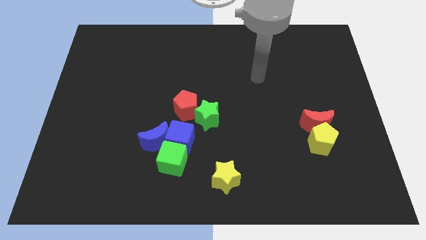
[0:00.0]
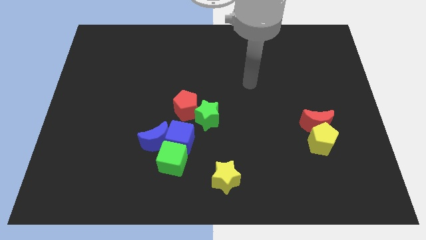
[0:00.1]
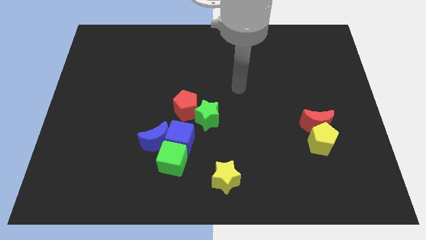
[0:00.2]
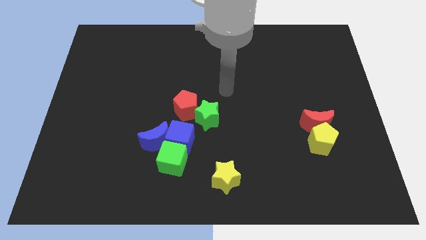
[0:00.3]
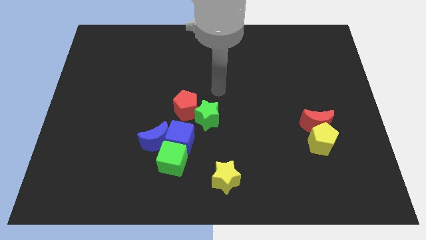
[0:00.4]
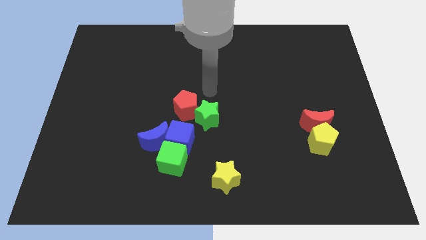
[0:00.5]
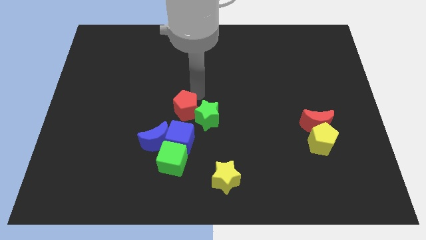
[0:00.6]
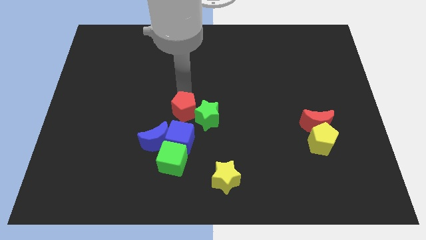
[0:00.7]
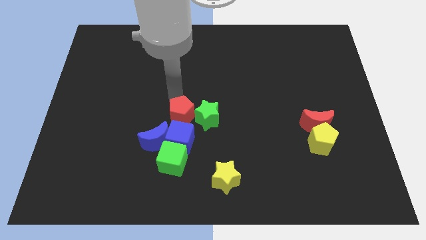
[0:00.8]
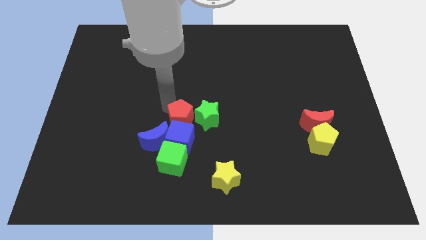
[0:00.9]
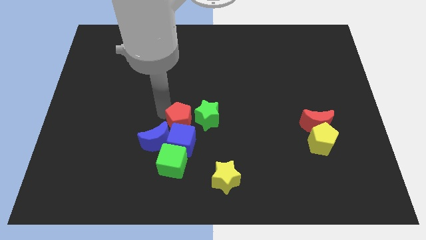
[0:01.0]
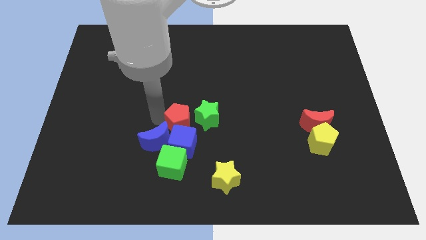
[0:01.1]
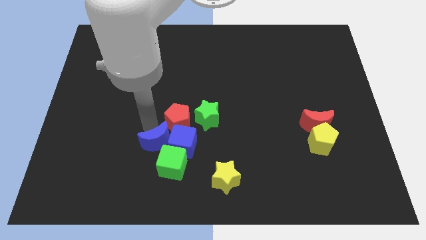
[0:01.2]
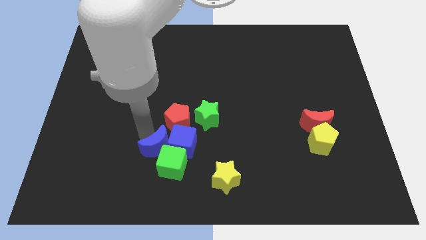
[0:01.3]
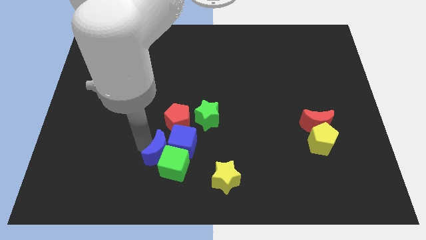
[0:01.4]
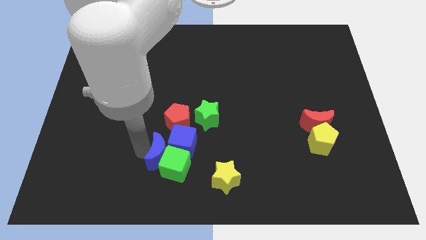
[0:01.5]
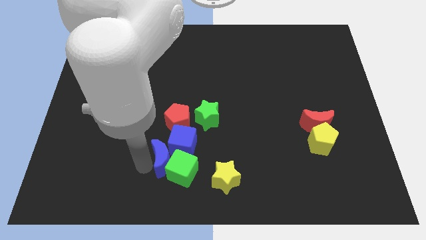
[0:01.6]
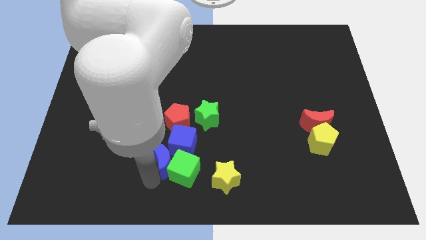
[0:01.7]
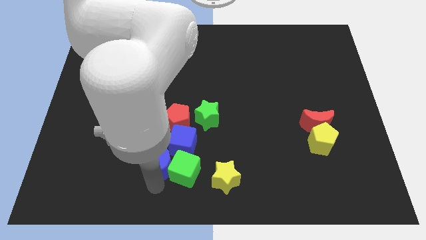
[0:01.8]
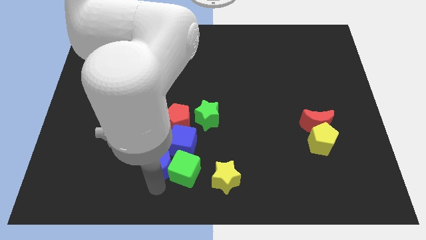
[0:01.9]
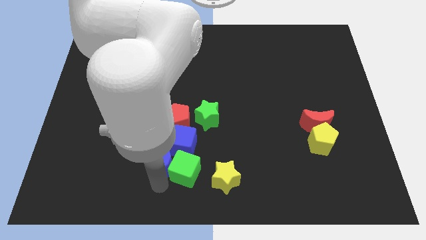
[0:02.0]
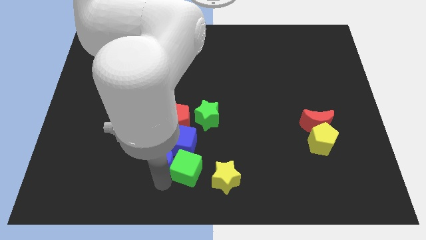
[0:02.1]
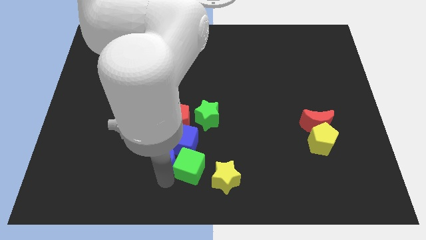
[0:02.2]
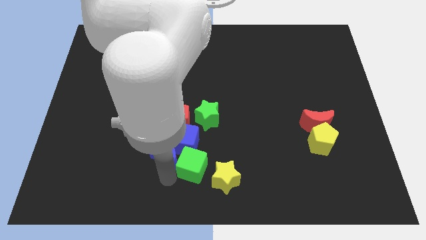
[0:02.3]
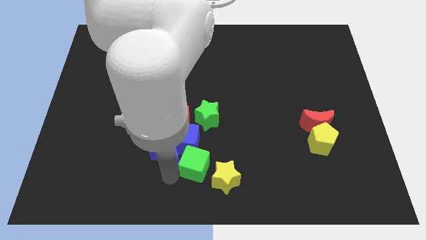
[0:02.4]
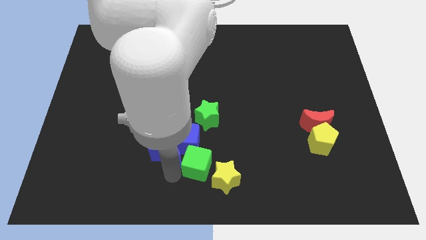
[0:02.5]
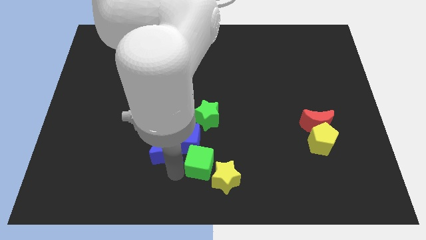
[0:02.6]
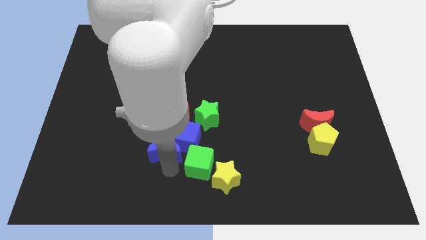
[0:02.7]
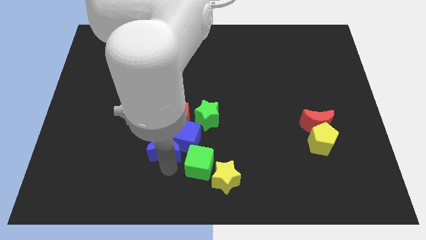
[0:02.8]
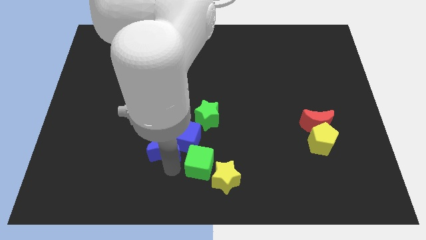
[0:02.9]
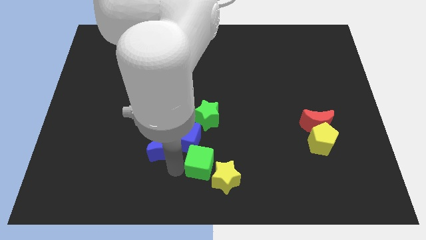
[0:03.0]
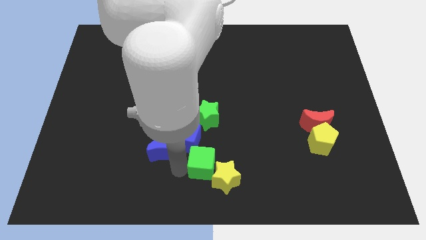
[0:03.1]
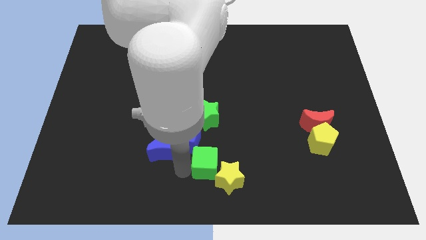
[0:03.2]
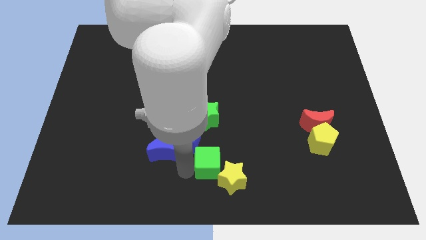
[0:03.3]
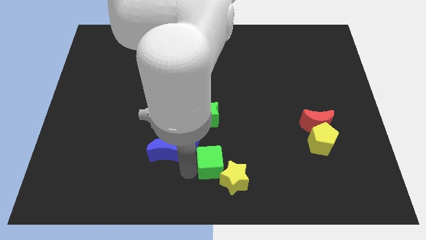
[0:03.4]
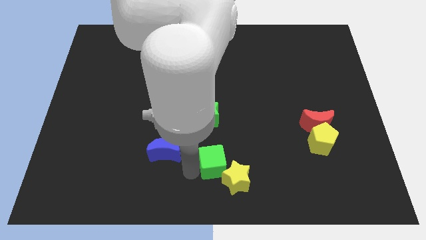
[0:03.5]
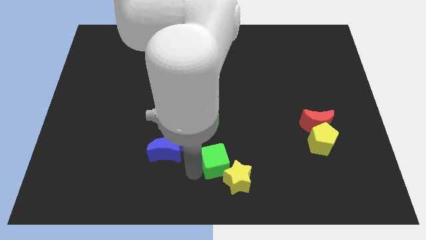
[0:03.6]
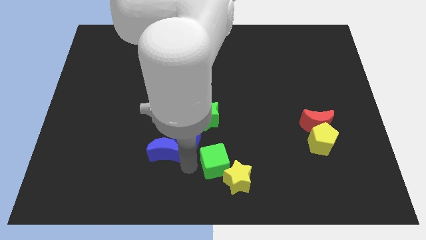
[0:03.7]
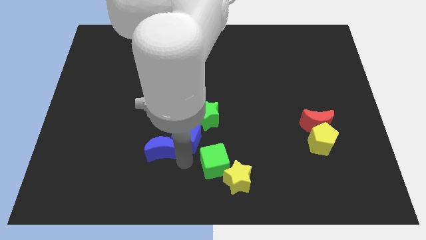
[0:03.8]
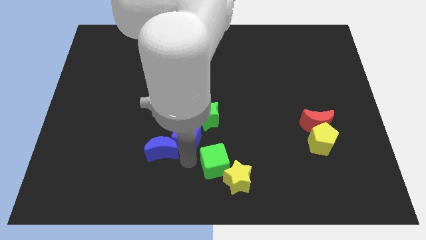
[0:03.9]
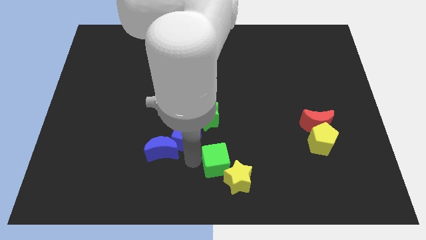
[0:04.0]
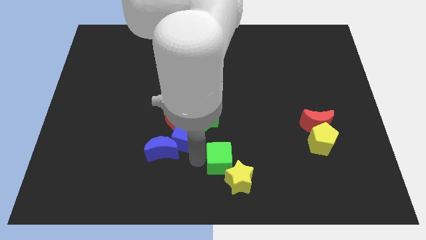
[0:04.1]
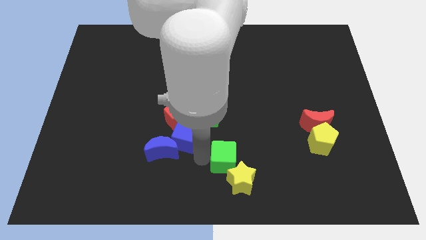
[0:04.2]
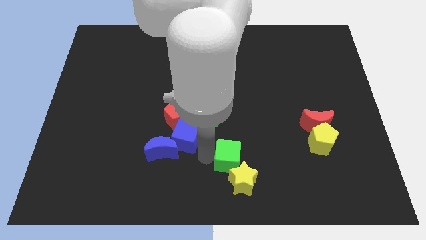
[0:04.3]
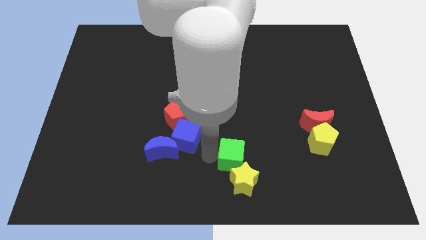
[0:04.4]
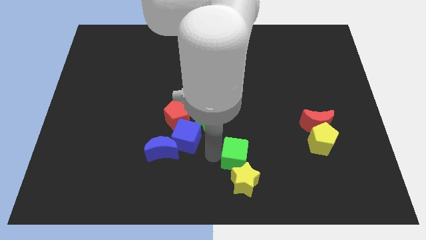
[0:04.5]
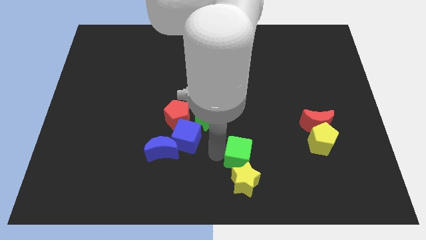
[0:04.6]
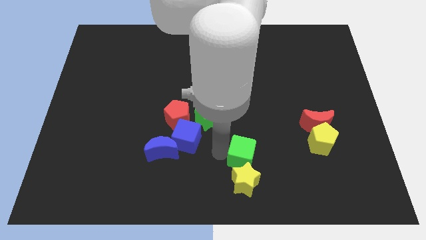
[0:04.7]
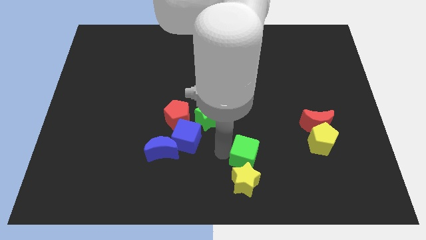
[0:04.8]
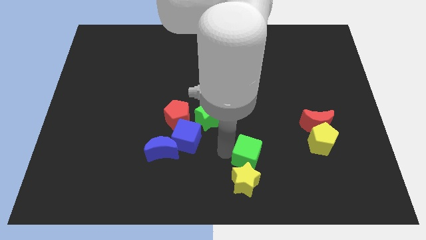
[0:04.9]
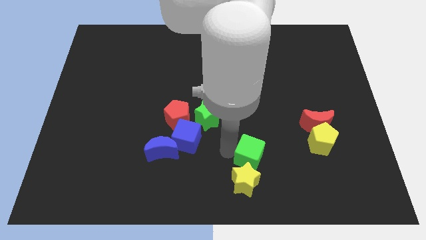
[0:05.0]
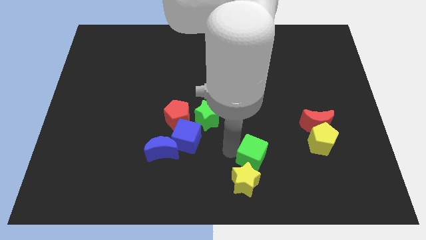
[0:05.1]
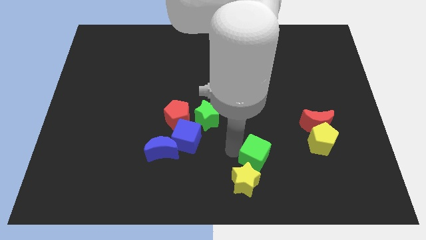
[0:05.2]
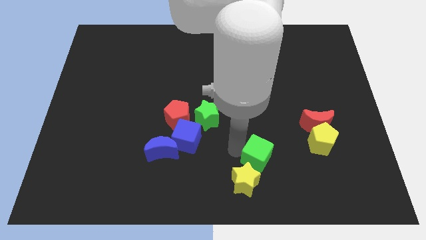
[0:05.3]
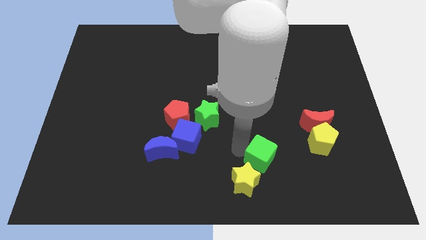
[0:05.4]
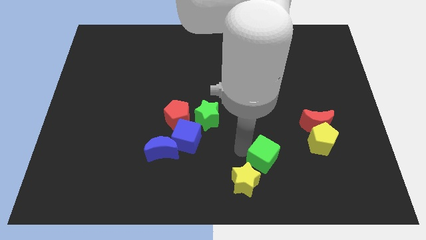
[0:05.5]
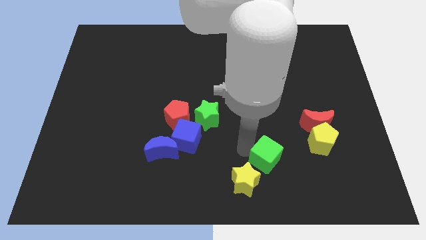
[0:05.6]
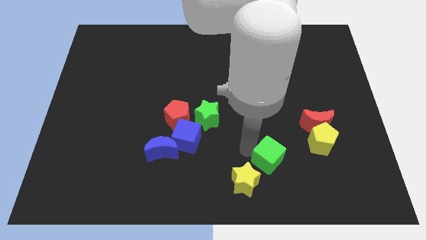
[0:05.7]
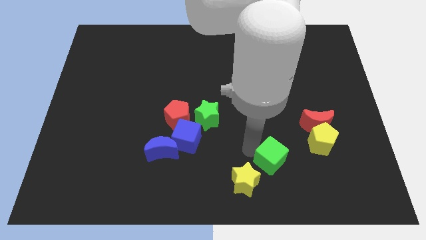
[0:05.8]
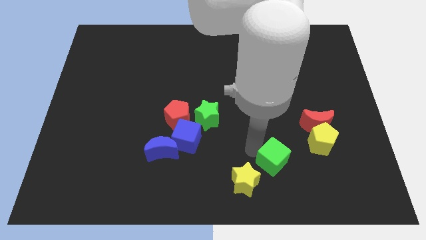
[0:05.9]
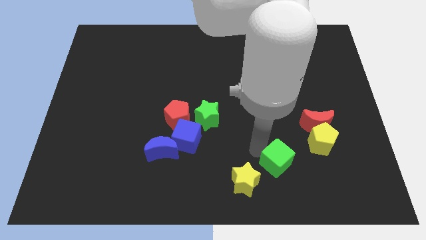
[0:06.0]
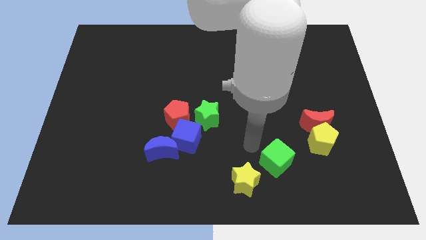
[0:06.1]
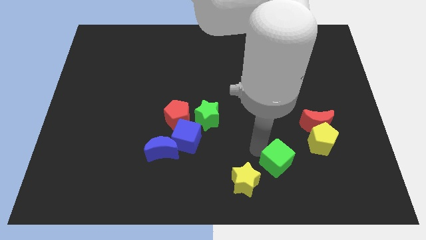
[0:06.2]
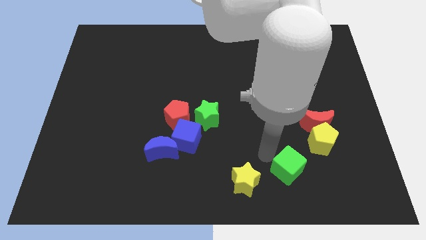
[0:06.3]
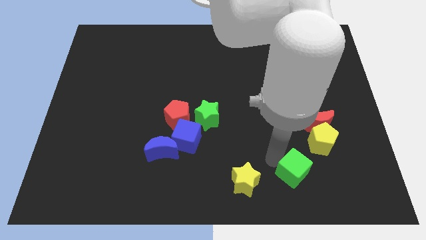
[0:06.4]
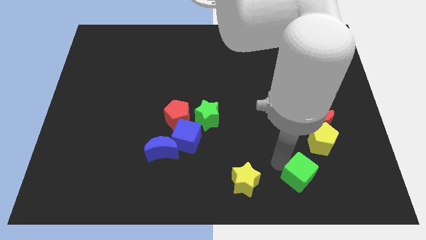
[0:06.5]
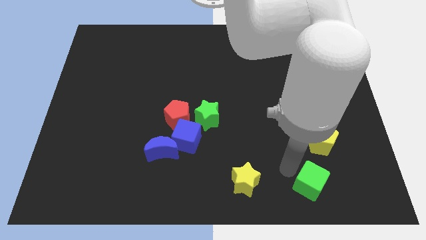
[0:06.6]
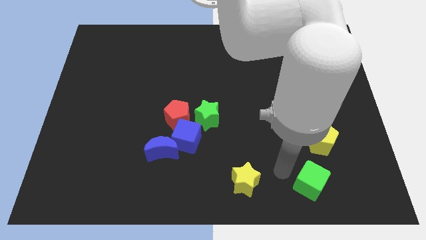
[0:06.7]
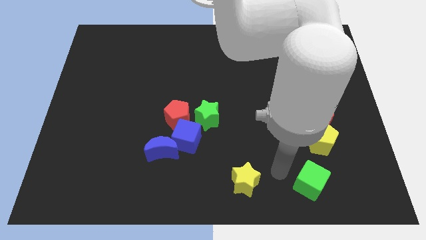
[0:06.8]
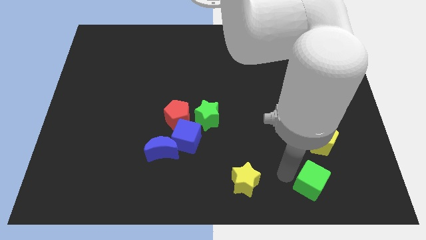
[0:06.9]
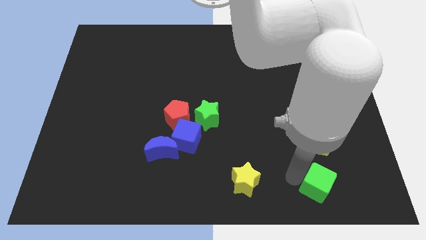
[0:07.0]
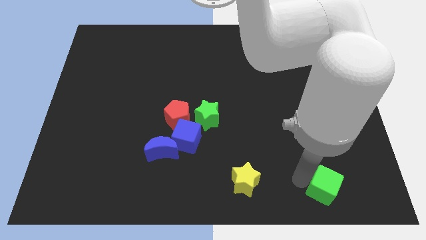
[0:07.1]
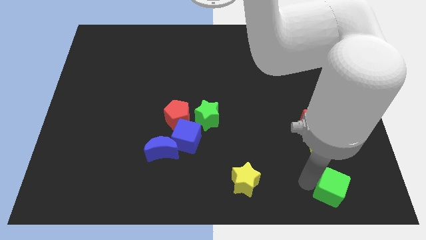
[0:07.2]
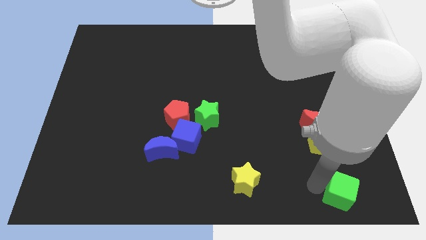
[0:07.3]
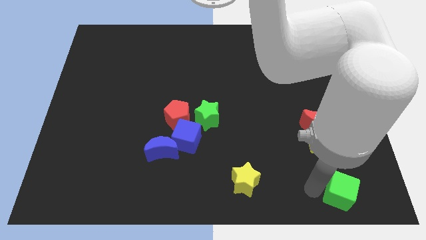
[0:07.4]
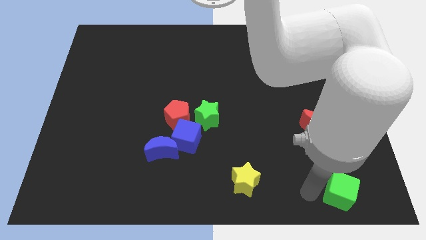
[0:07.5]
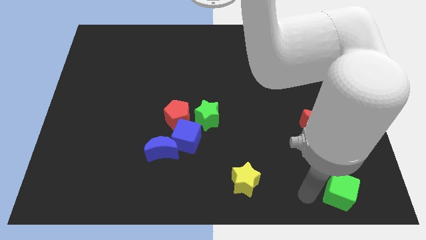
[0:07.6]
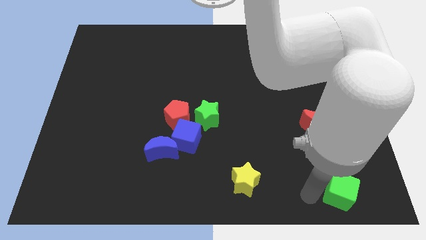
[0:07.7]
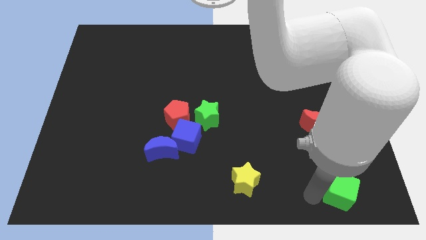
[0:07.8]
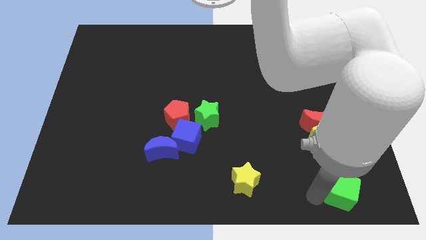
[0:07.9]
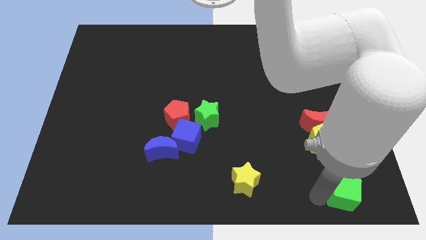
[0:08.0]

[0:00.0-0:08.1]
move the green cube to the lower right corner
